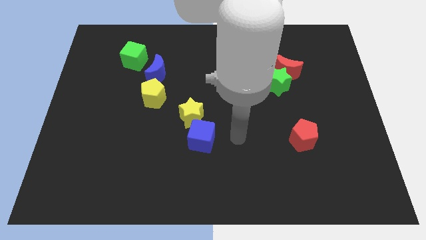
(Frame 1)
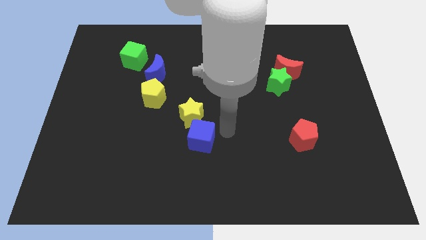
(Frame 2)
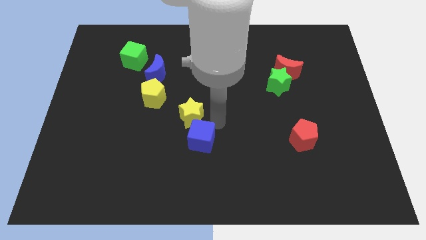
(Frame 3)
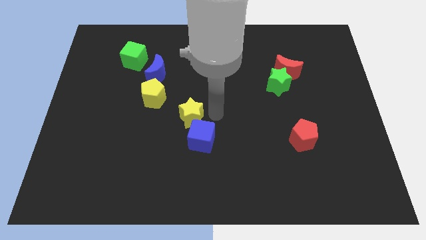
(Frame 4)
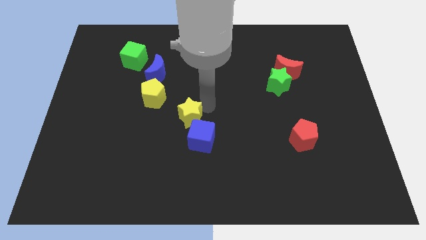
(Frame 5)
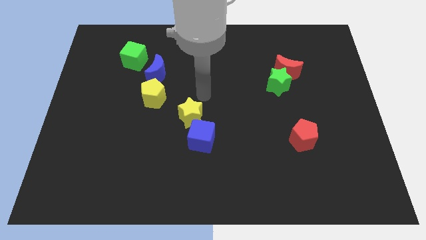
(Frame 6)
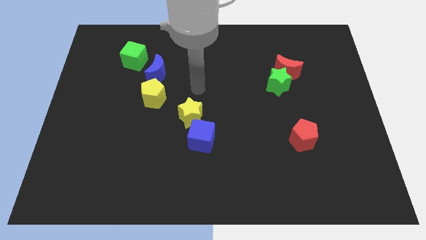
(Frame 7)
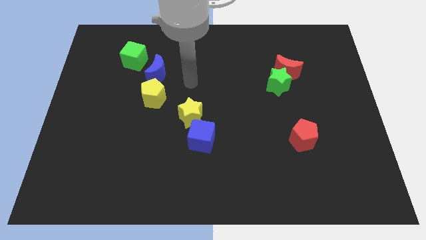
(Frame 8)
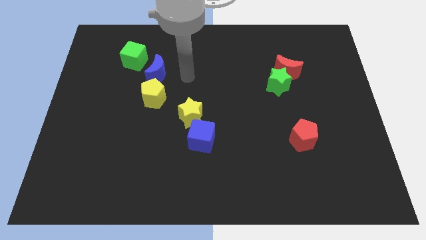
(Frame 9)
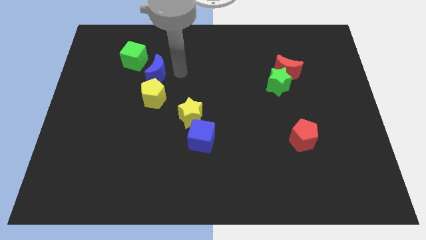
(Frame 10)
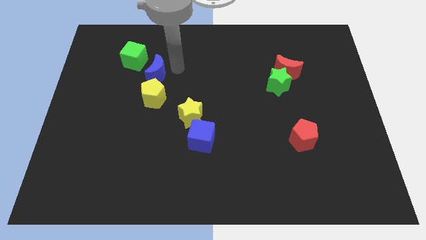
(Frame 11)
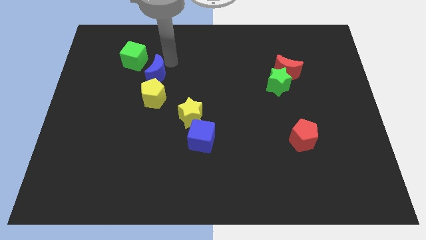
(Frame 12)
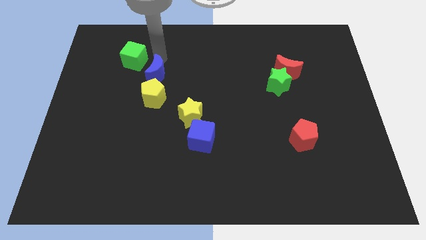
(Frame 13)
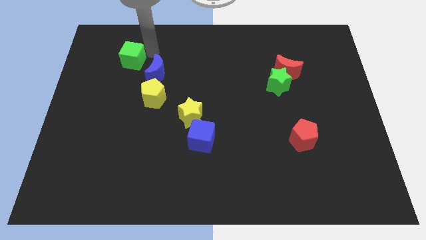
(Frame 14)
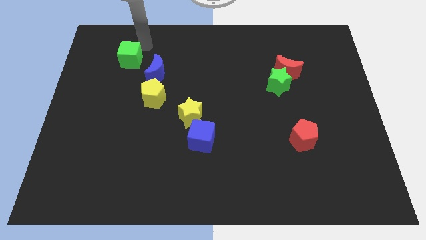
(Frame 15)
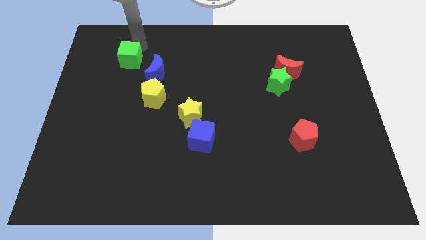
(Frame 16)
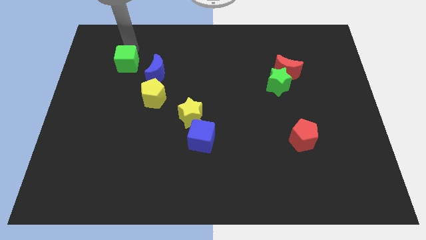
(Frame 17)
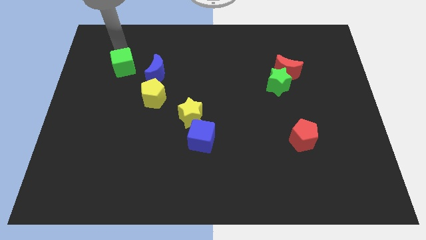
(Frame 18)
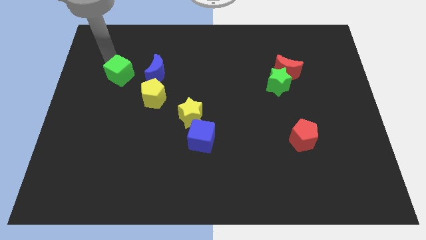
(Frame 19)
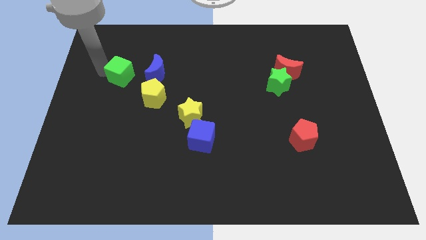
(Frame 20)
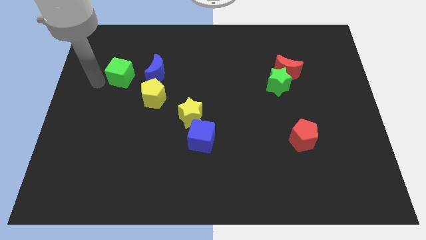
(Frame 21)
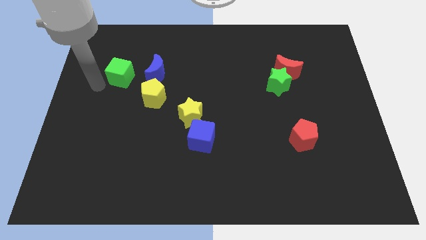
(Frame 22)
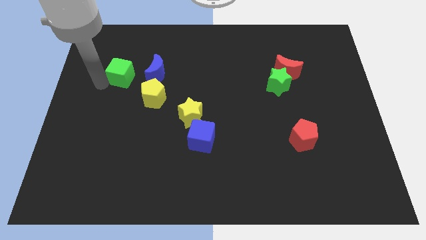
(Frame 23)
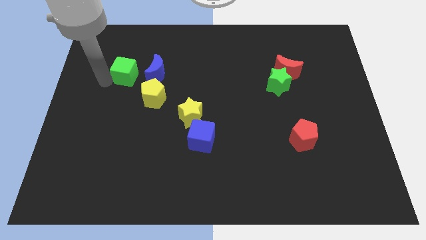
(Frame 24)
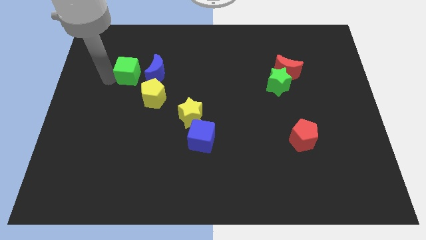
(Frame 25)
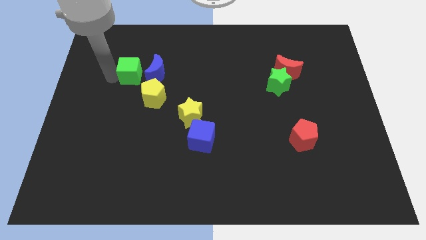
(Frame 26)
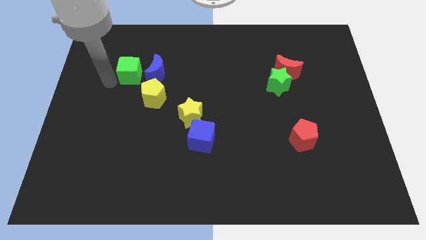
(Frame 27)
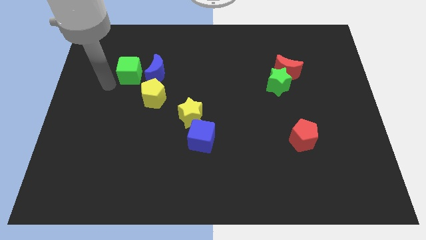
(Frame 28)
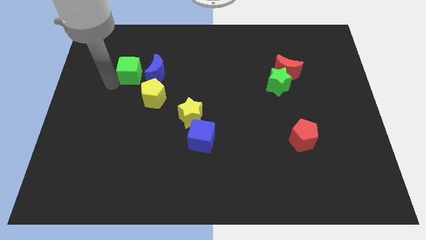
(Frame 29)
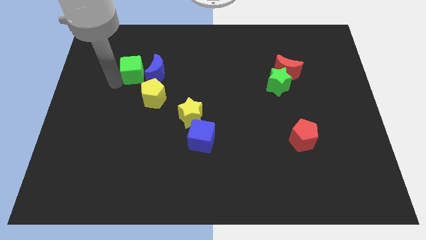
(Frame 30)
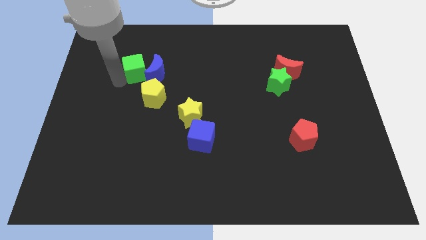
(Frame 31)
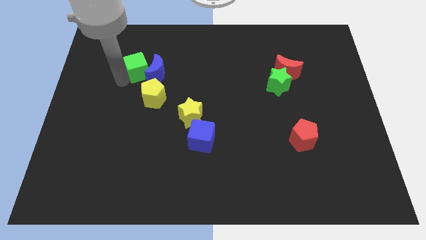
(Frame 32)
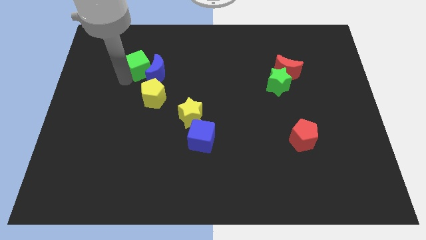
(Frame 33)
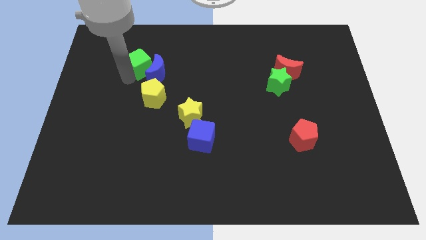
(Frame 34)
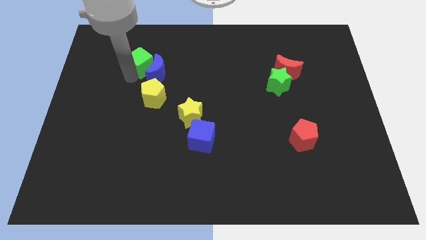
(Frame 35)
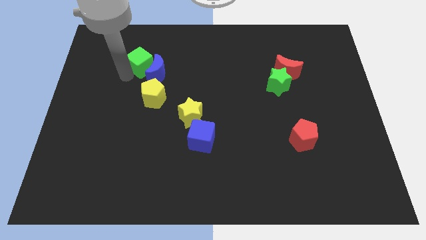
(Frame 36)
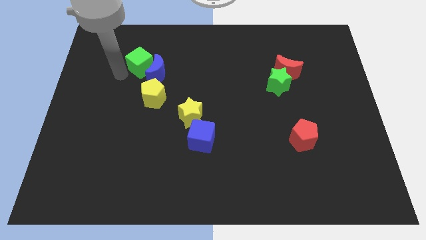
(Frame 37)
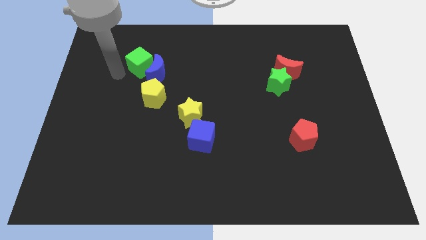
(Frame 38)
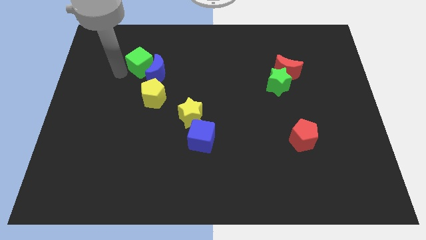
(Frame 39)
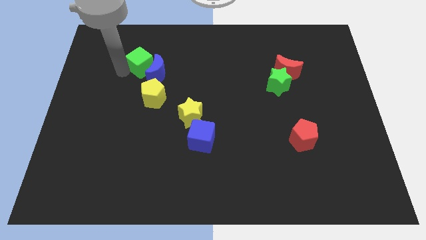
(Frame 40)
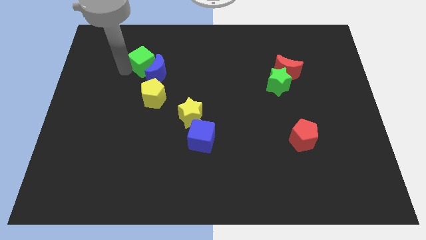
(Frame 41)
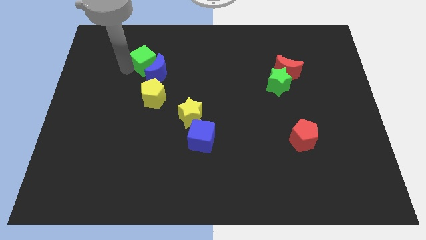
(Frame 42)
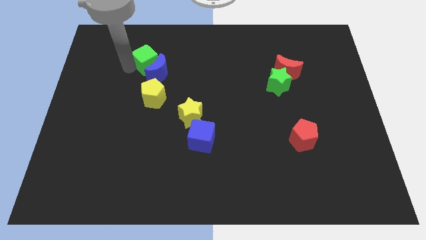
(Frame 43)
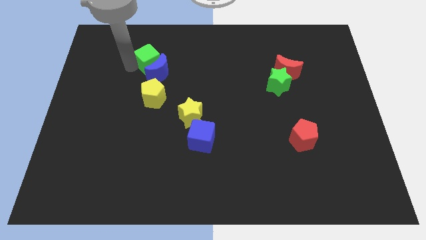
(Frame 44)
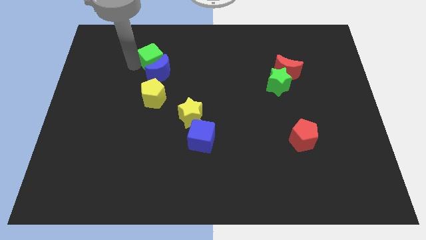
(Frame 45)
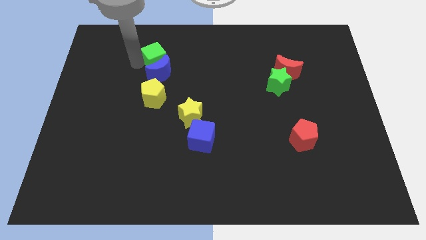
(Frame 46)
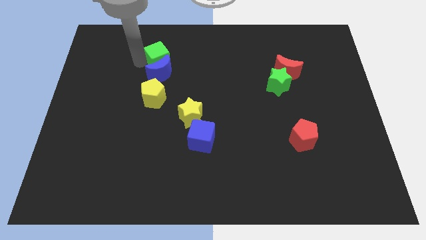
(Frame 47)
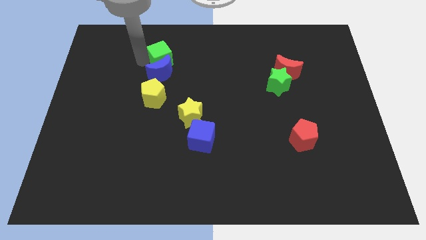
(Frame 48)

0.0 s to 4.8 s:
move the green cube to the right a bit

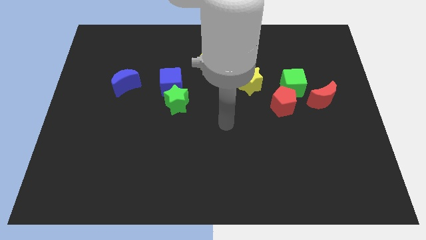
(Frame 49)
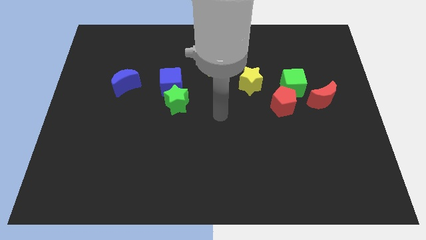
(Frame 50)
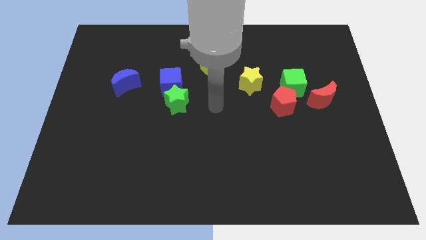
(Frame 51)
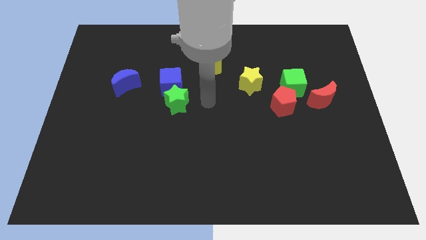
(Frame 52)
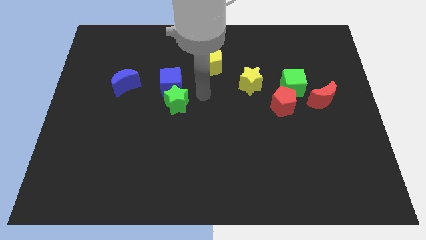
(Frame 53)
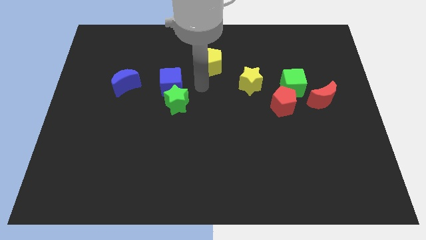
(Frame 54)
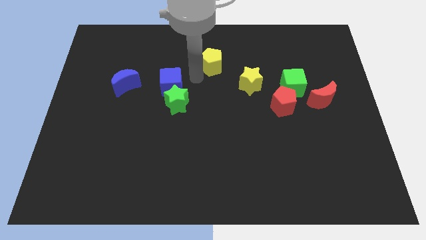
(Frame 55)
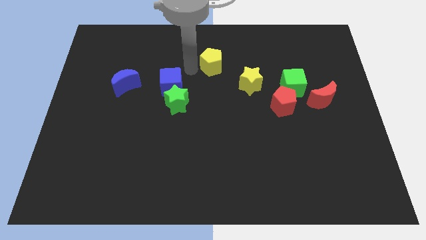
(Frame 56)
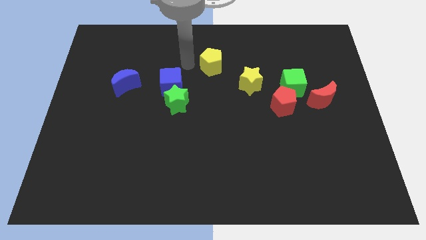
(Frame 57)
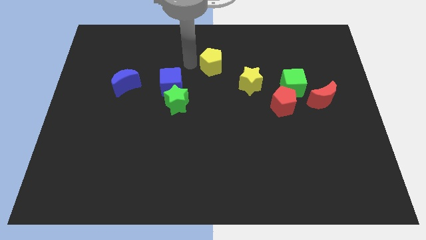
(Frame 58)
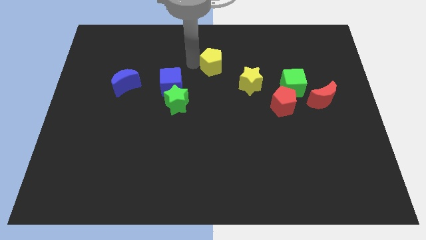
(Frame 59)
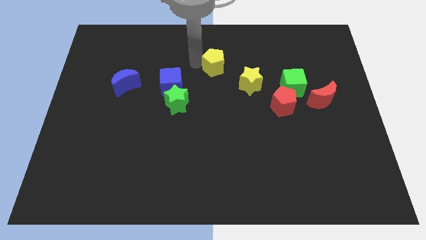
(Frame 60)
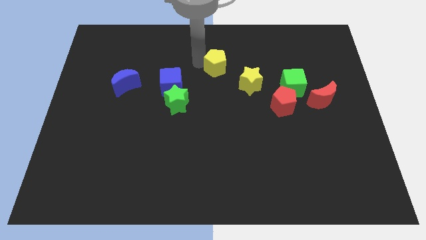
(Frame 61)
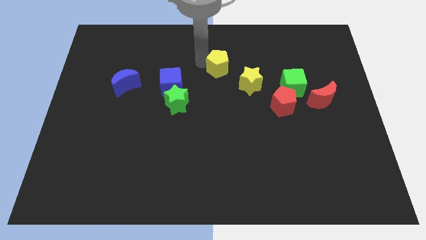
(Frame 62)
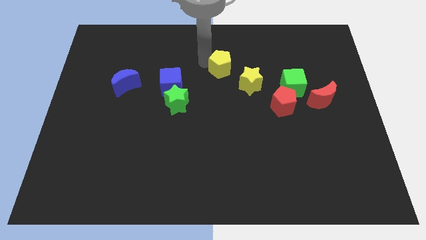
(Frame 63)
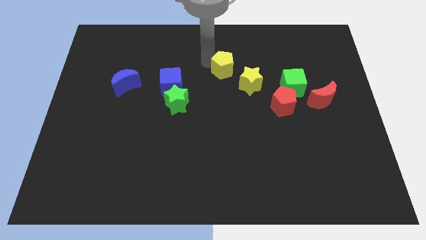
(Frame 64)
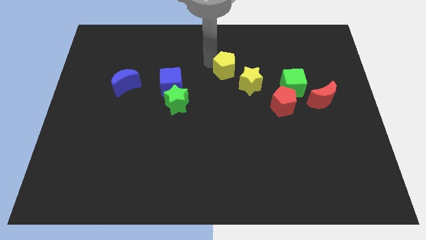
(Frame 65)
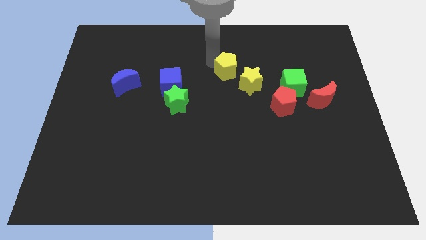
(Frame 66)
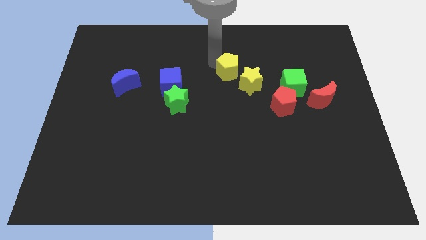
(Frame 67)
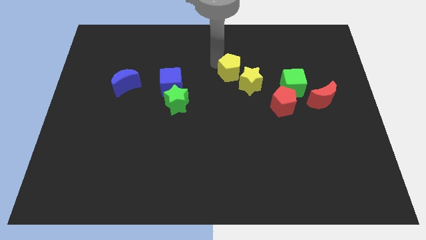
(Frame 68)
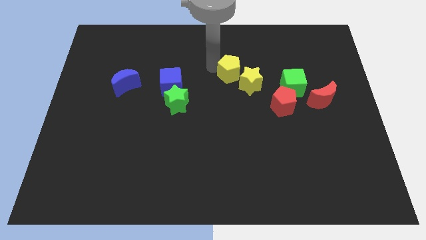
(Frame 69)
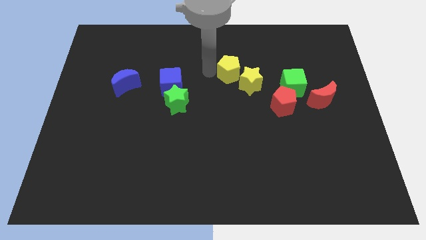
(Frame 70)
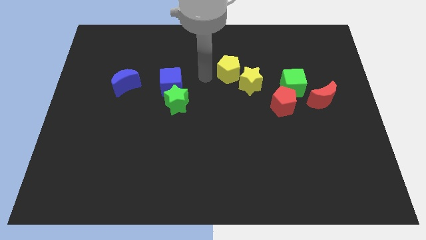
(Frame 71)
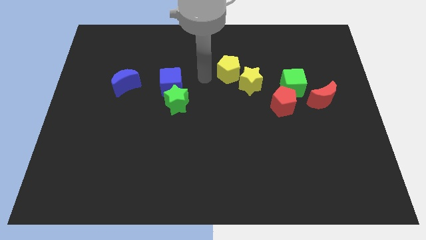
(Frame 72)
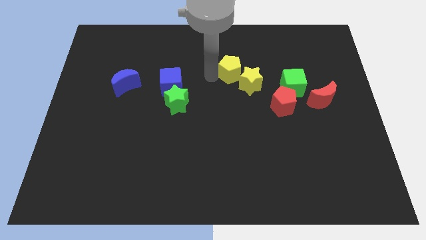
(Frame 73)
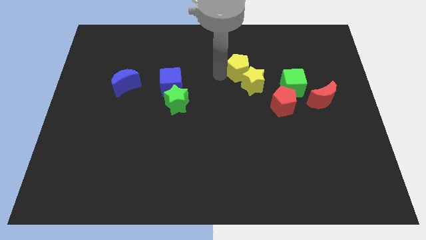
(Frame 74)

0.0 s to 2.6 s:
slightly slide the yellow pentagon right

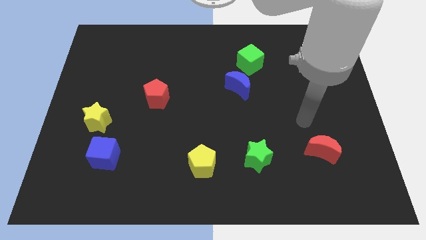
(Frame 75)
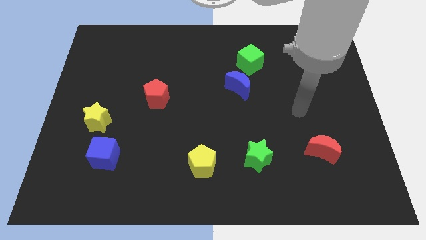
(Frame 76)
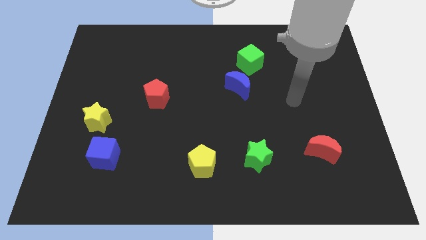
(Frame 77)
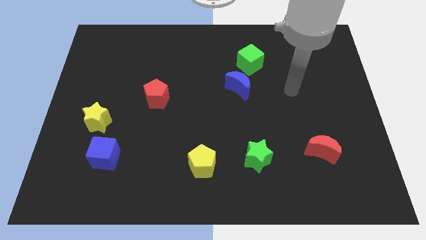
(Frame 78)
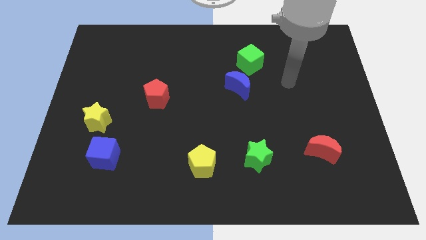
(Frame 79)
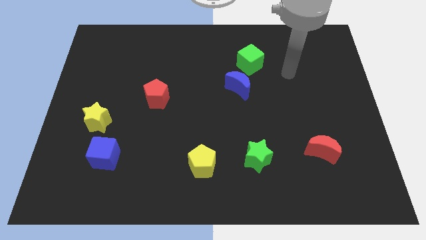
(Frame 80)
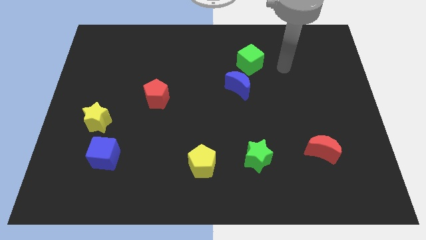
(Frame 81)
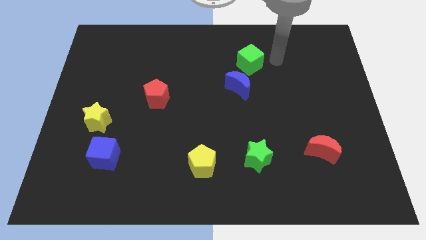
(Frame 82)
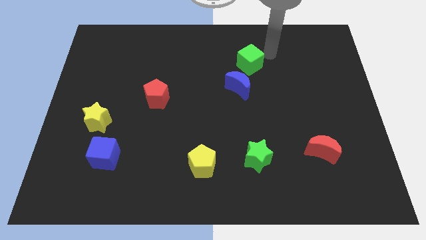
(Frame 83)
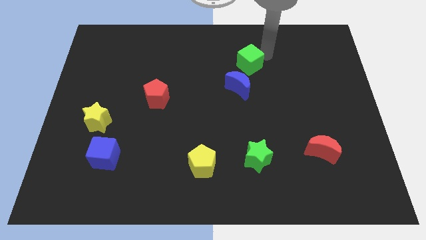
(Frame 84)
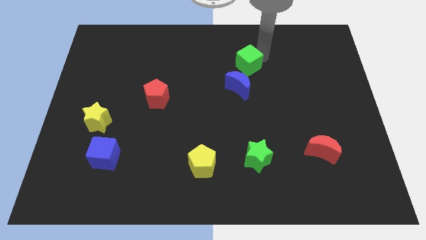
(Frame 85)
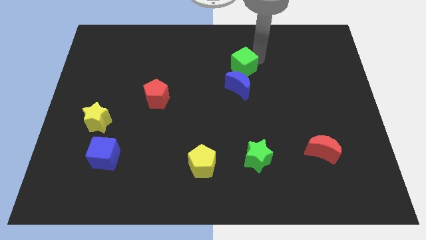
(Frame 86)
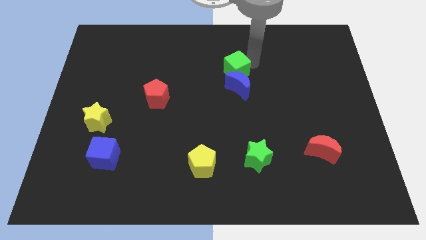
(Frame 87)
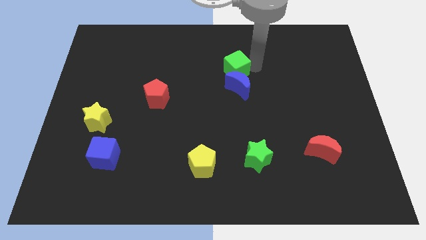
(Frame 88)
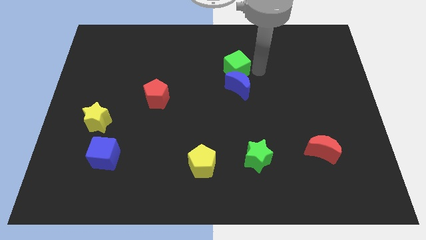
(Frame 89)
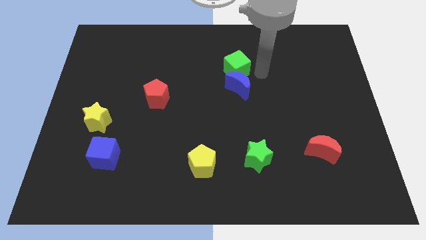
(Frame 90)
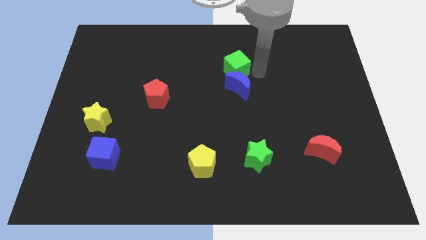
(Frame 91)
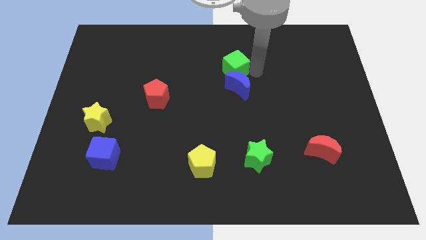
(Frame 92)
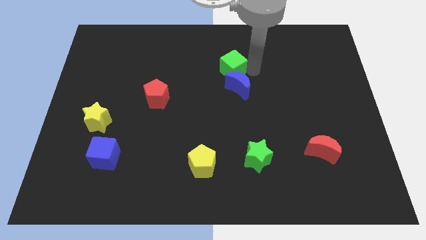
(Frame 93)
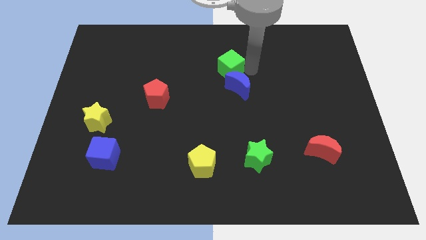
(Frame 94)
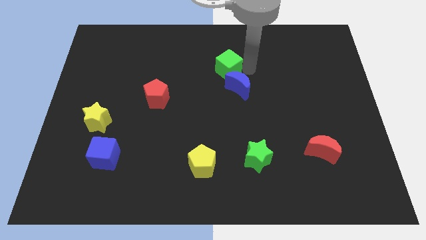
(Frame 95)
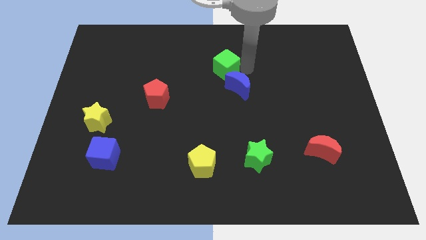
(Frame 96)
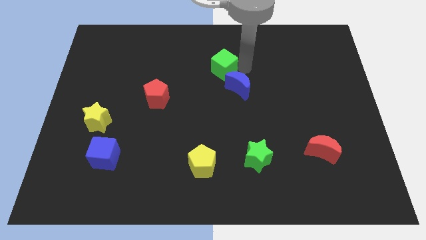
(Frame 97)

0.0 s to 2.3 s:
slightly push the green cube to the left
